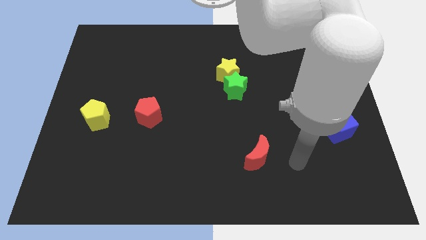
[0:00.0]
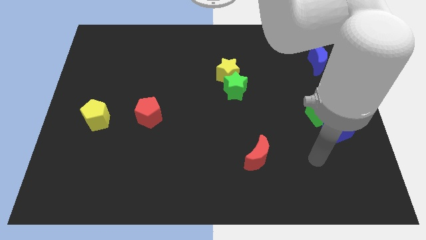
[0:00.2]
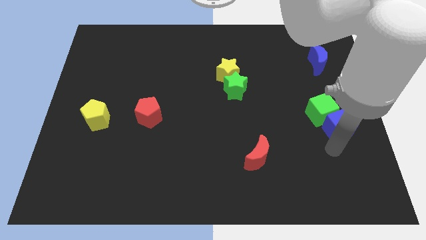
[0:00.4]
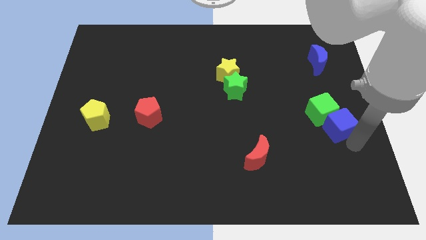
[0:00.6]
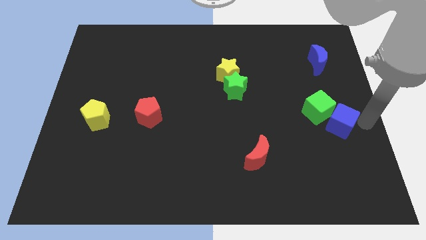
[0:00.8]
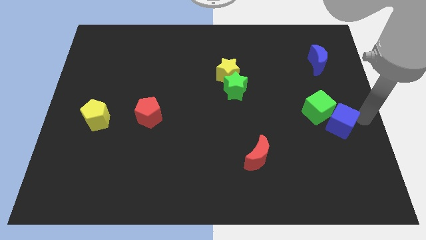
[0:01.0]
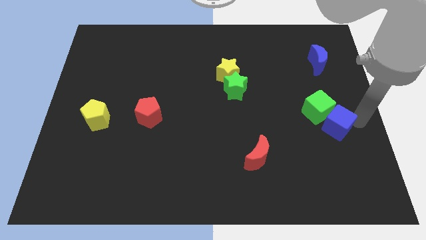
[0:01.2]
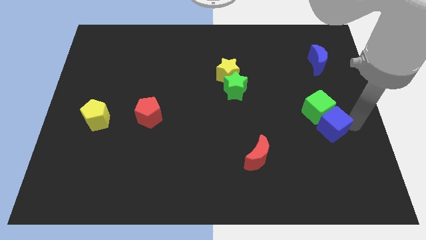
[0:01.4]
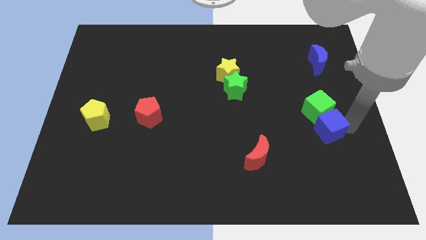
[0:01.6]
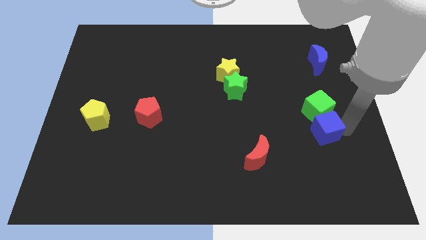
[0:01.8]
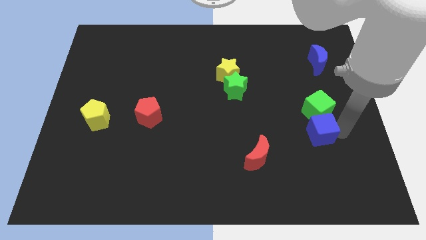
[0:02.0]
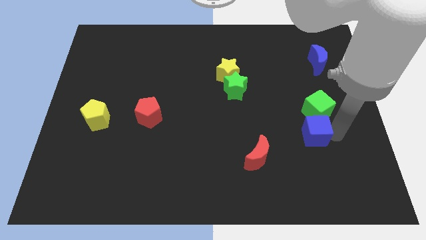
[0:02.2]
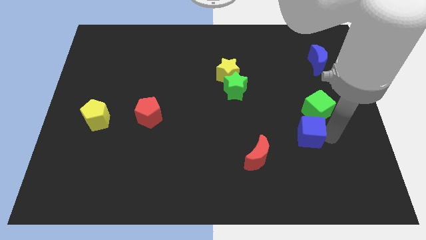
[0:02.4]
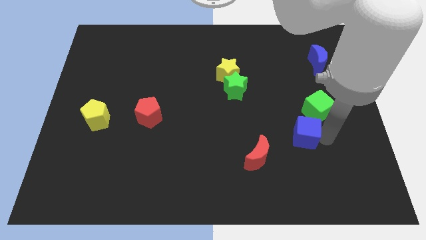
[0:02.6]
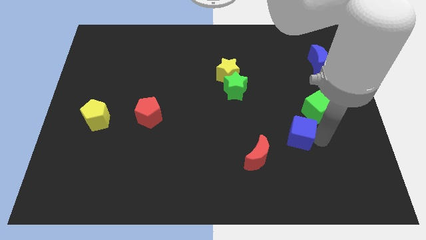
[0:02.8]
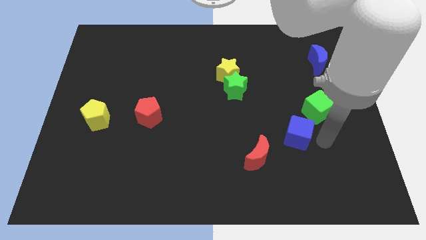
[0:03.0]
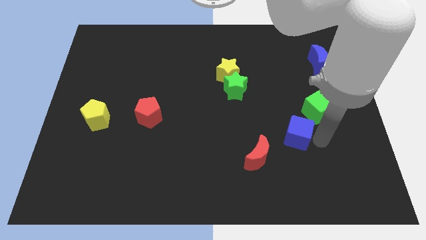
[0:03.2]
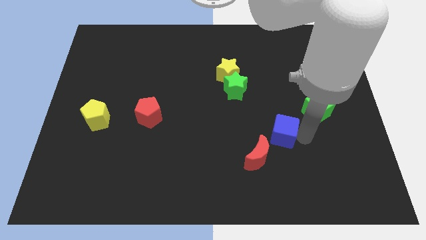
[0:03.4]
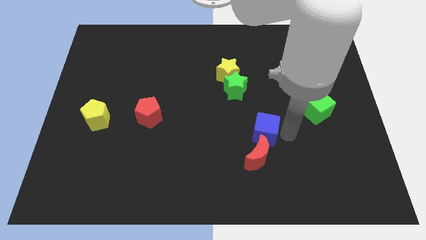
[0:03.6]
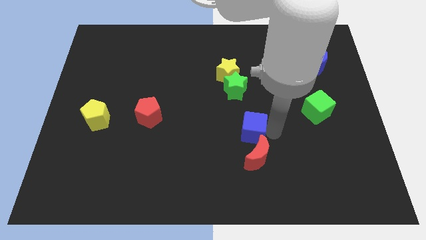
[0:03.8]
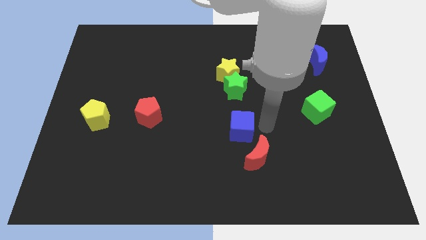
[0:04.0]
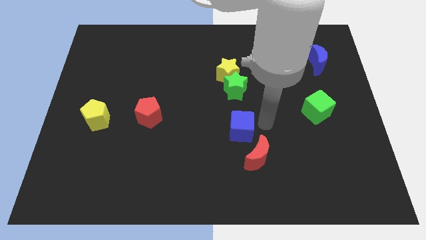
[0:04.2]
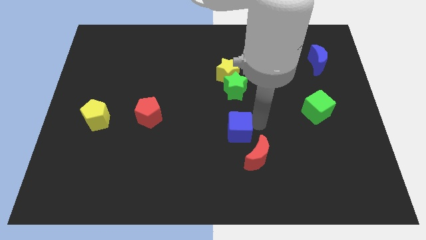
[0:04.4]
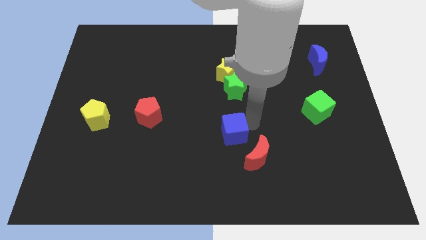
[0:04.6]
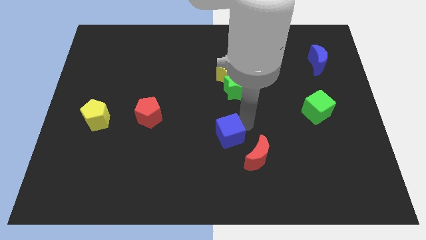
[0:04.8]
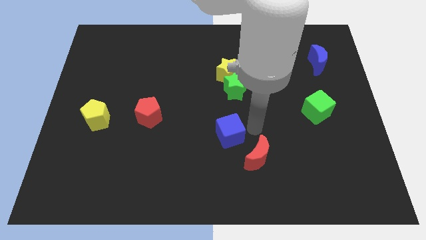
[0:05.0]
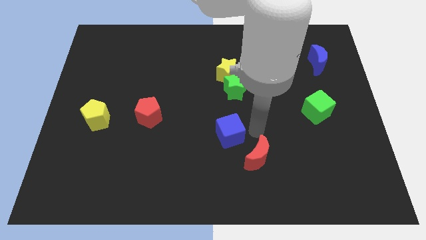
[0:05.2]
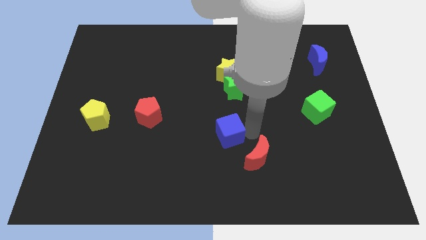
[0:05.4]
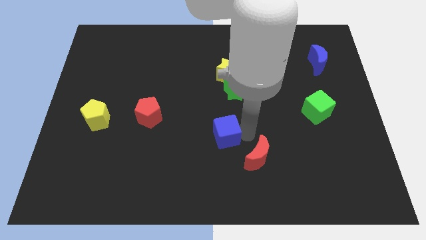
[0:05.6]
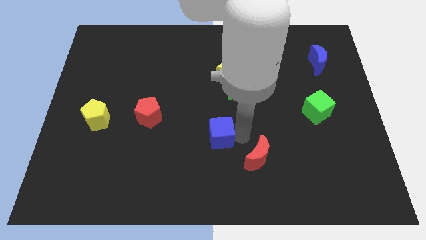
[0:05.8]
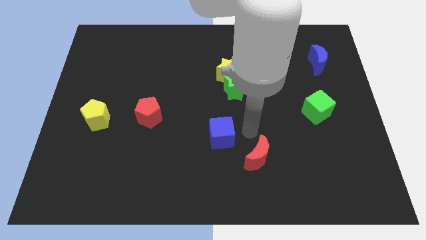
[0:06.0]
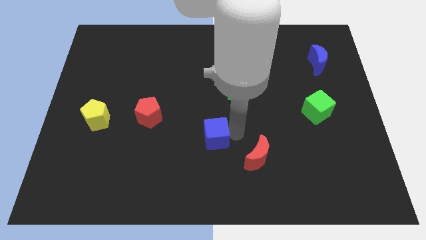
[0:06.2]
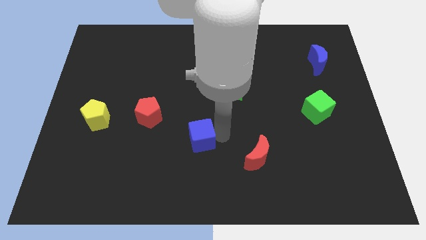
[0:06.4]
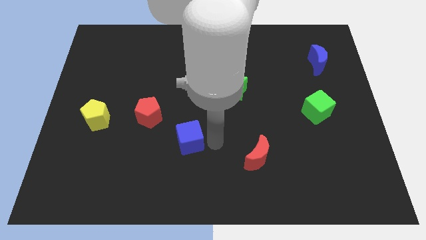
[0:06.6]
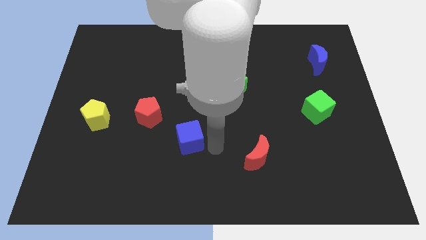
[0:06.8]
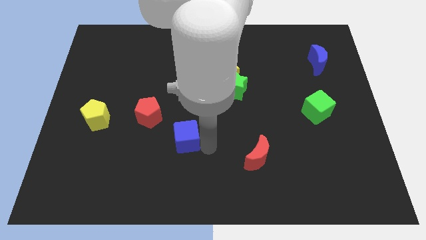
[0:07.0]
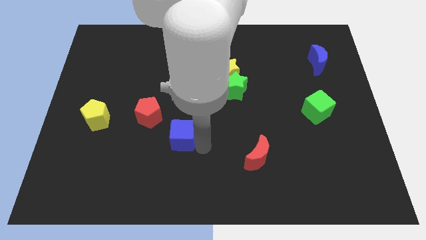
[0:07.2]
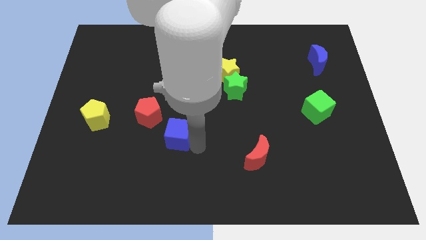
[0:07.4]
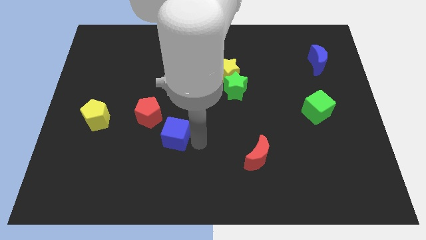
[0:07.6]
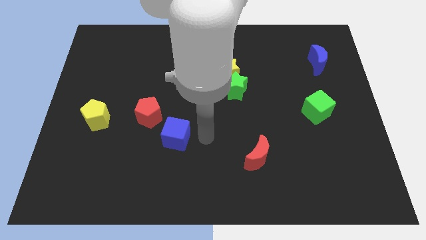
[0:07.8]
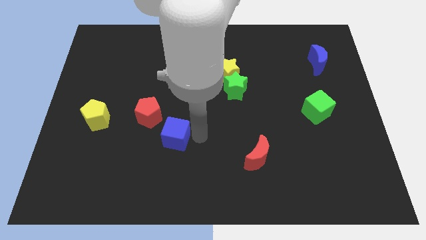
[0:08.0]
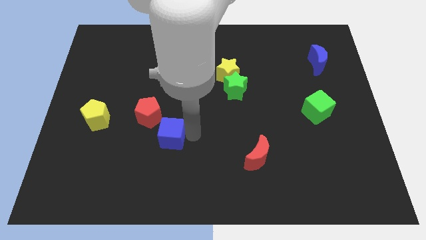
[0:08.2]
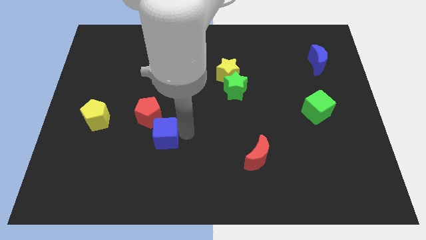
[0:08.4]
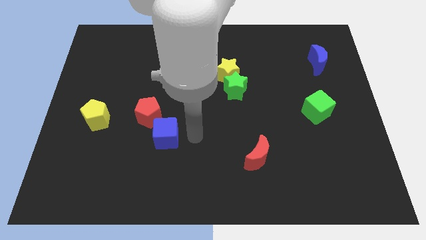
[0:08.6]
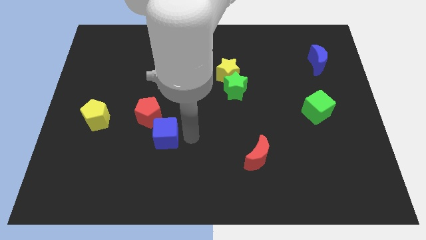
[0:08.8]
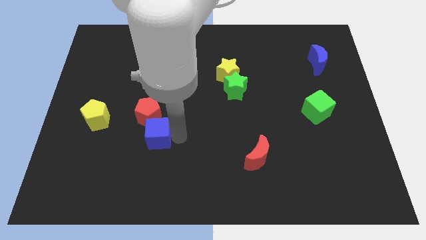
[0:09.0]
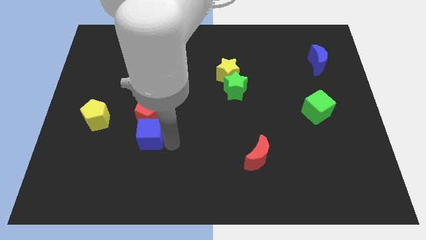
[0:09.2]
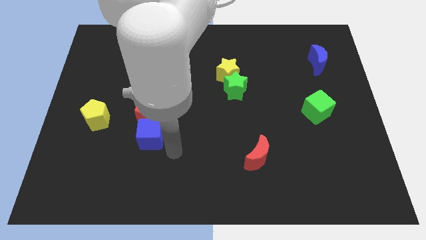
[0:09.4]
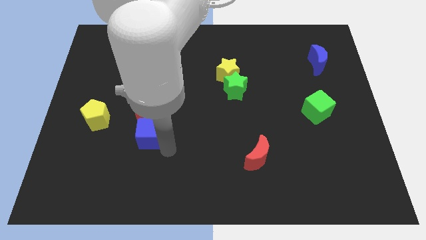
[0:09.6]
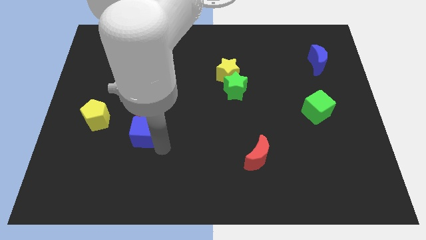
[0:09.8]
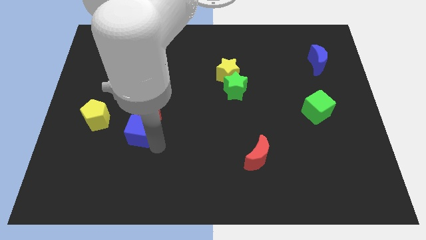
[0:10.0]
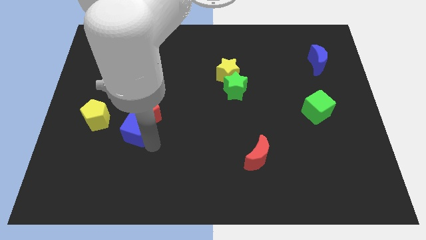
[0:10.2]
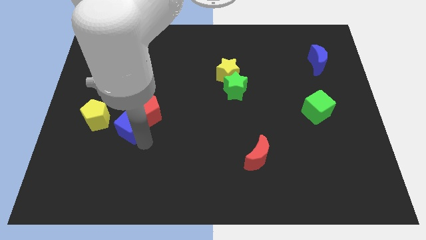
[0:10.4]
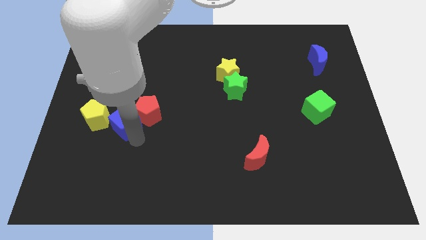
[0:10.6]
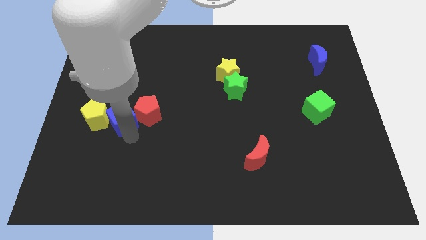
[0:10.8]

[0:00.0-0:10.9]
push the blue cube diagonally up and to the right of the yellow pentagon

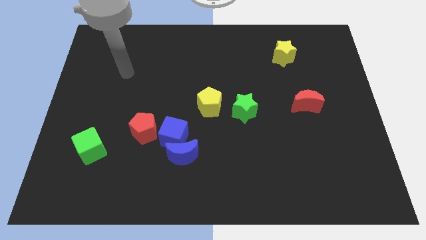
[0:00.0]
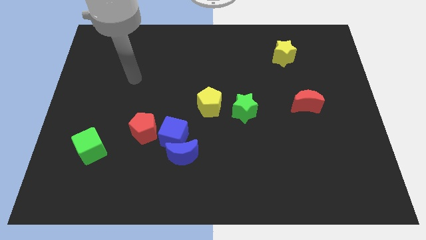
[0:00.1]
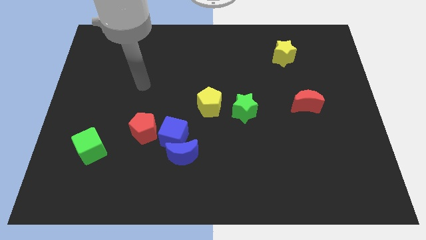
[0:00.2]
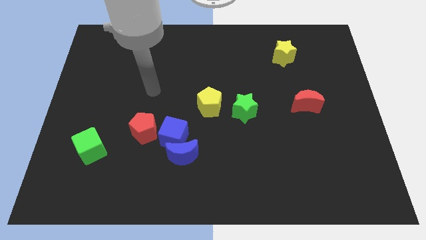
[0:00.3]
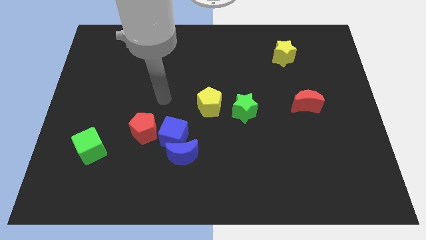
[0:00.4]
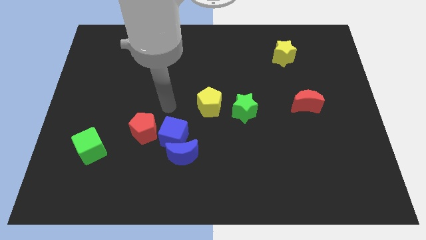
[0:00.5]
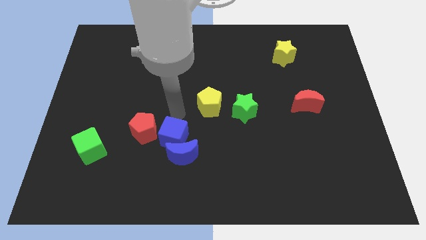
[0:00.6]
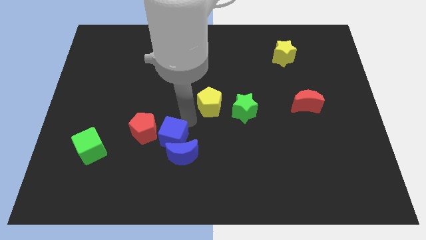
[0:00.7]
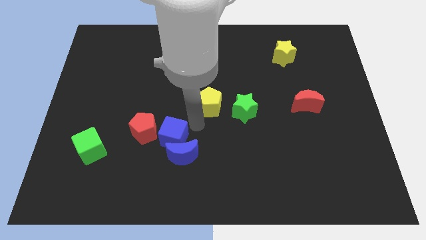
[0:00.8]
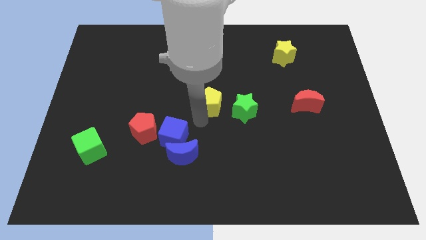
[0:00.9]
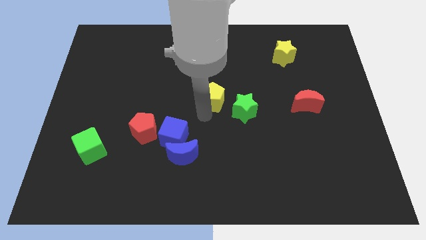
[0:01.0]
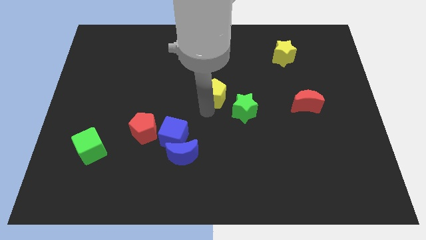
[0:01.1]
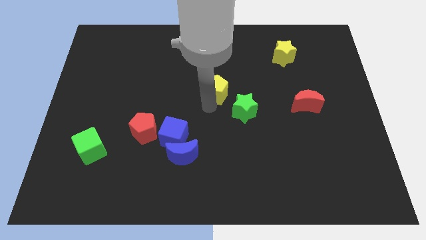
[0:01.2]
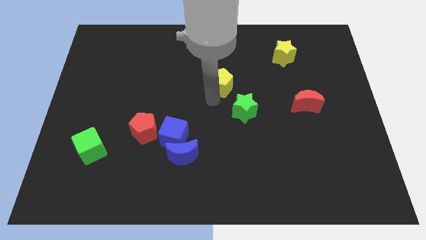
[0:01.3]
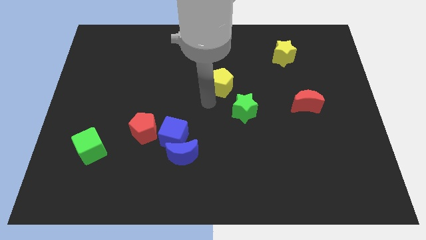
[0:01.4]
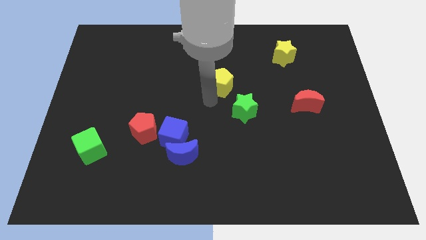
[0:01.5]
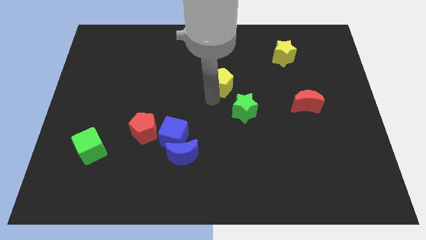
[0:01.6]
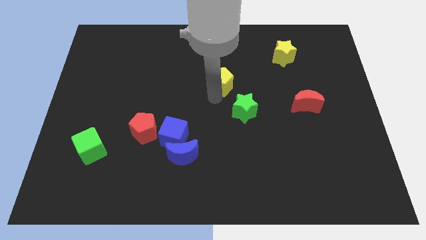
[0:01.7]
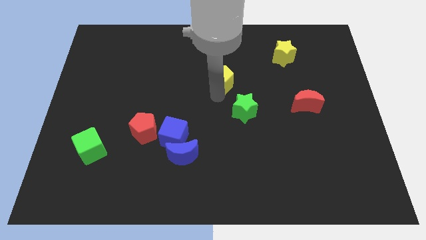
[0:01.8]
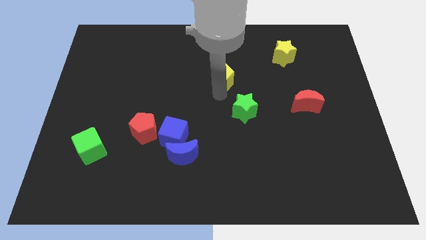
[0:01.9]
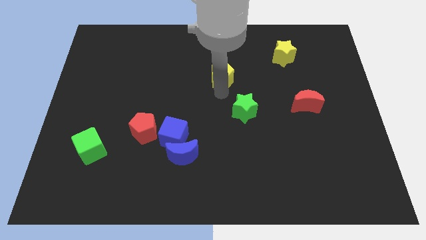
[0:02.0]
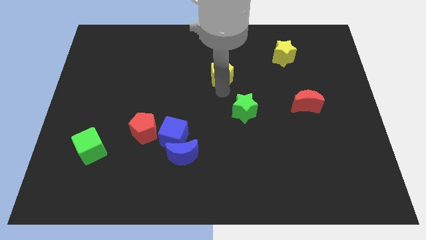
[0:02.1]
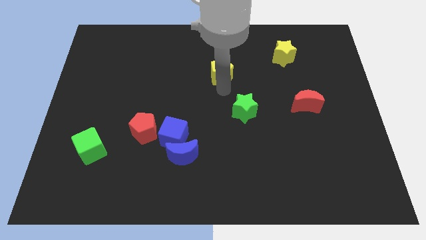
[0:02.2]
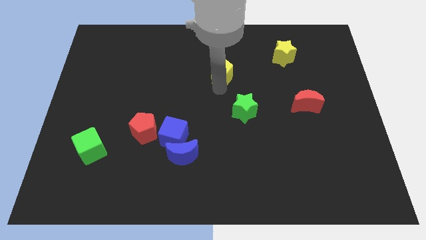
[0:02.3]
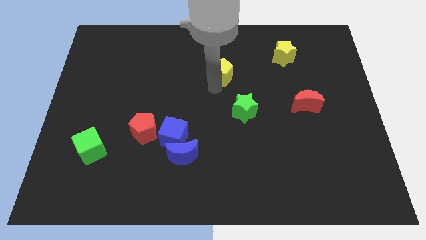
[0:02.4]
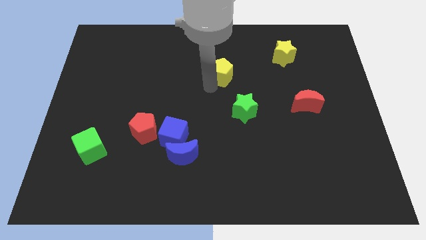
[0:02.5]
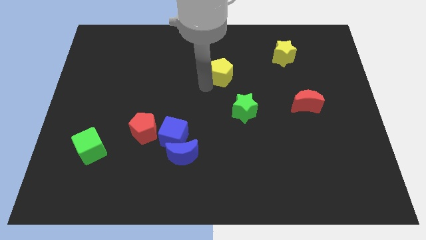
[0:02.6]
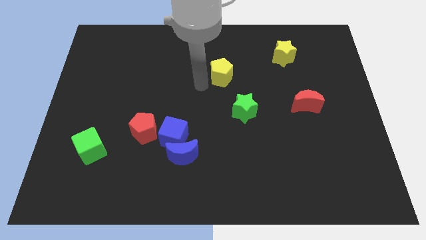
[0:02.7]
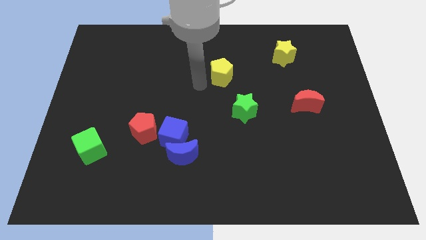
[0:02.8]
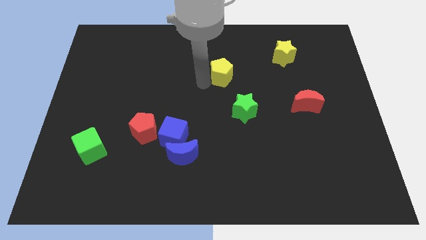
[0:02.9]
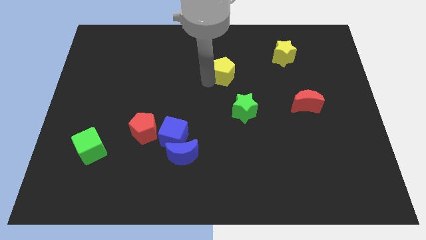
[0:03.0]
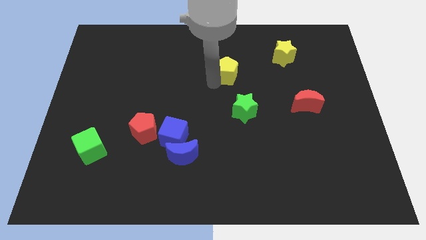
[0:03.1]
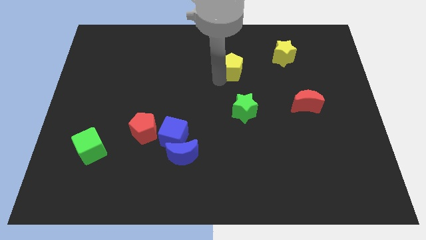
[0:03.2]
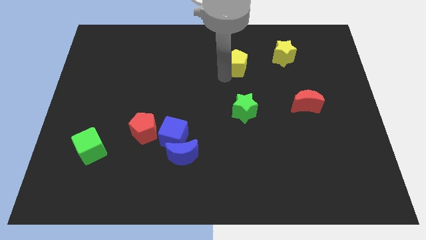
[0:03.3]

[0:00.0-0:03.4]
push the yellow pentagon just left of the yellow star
